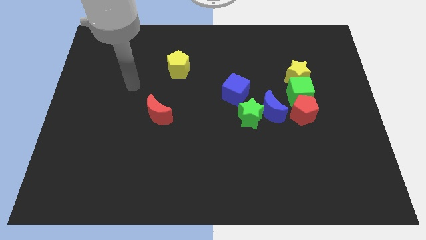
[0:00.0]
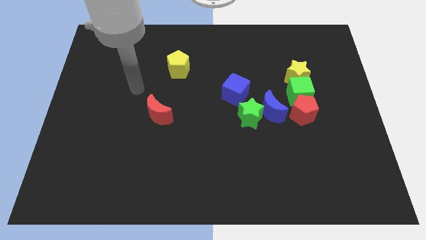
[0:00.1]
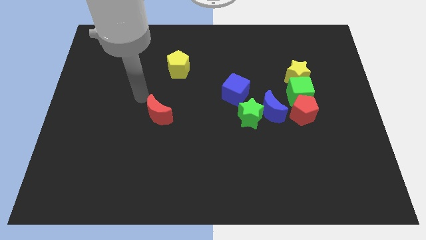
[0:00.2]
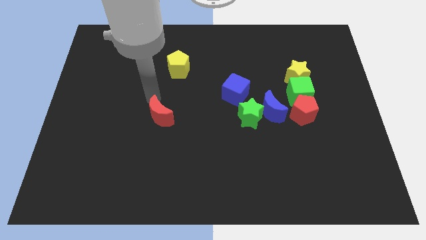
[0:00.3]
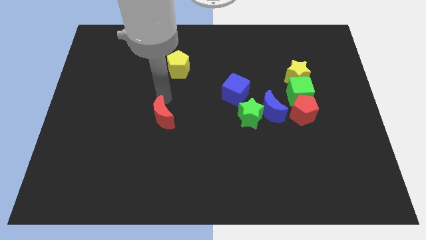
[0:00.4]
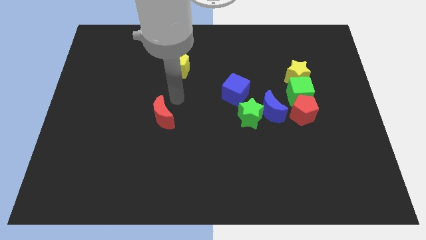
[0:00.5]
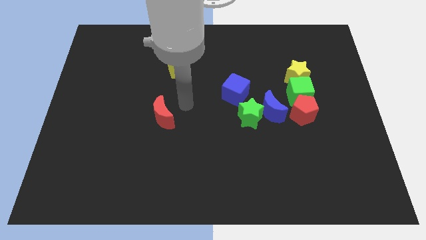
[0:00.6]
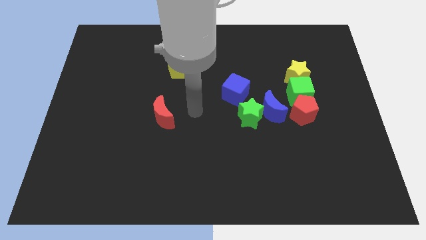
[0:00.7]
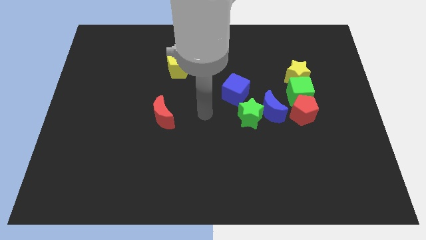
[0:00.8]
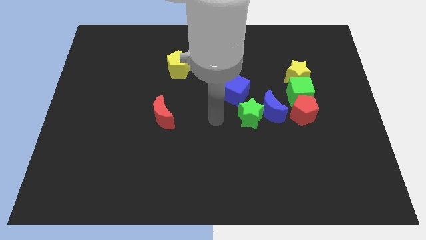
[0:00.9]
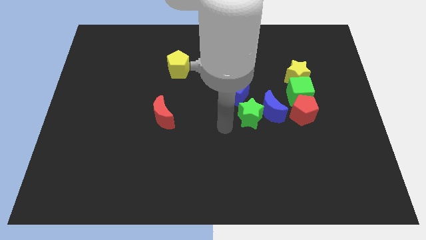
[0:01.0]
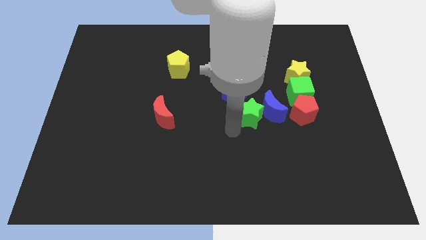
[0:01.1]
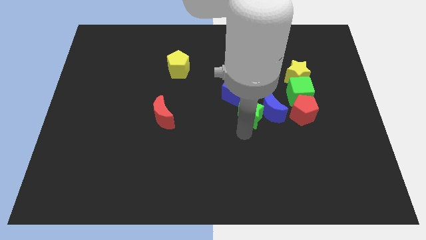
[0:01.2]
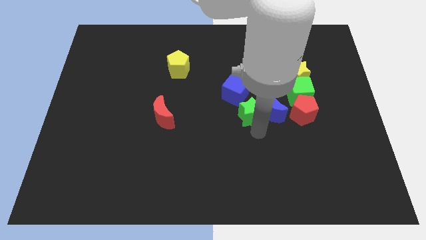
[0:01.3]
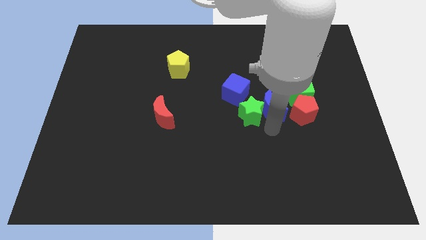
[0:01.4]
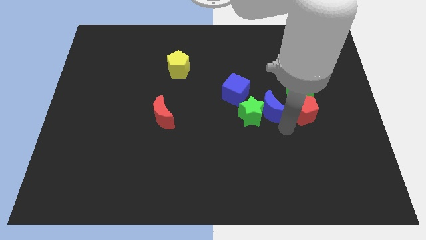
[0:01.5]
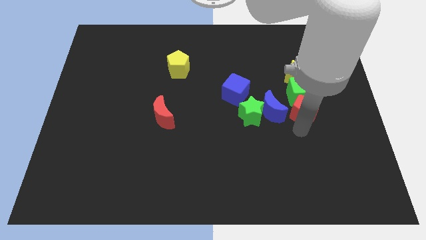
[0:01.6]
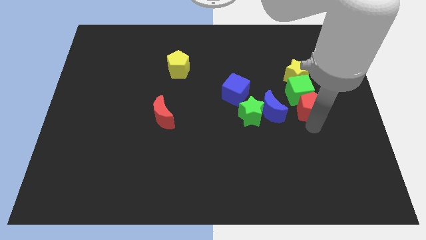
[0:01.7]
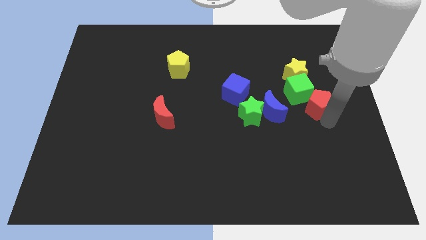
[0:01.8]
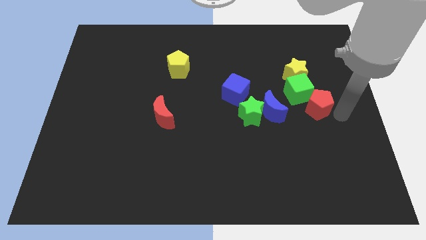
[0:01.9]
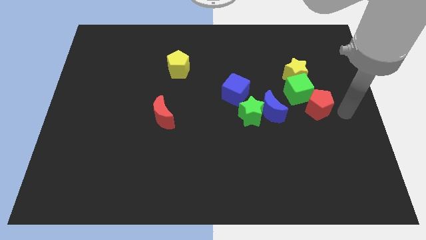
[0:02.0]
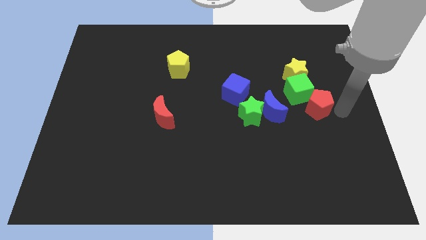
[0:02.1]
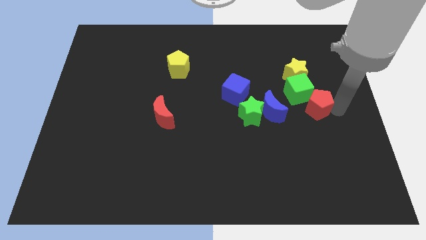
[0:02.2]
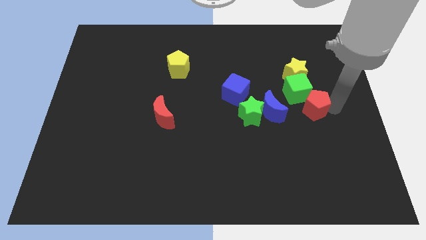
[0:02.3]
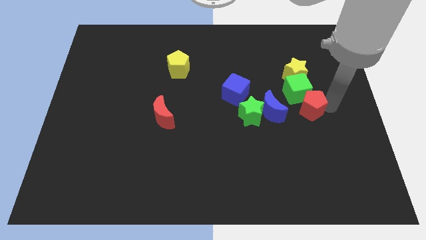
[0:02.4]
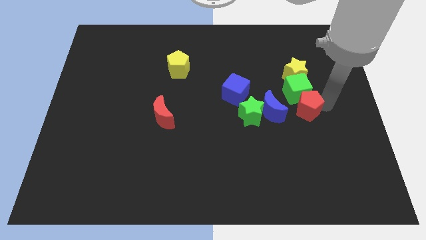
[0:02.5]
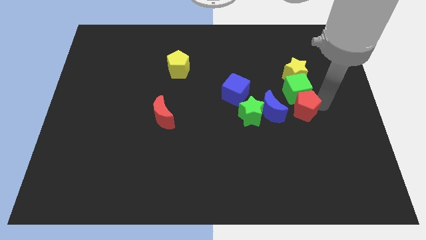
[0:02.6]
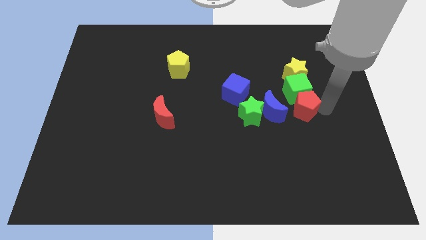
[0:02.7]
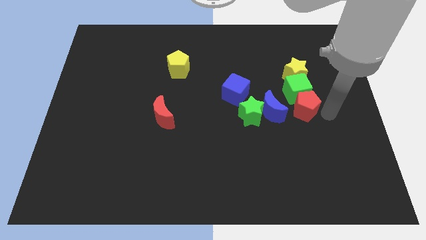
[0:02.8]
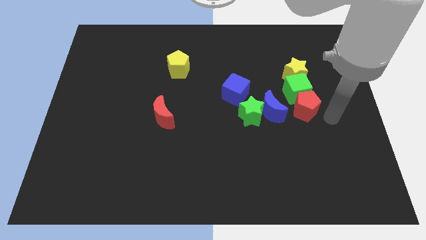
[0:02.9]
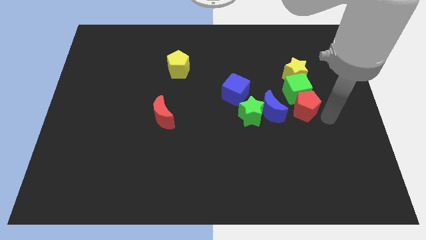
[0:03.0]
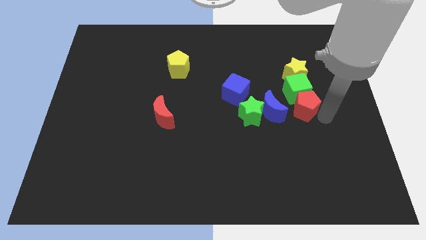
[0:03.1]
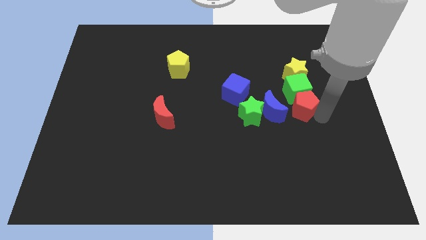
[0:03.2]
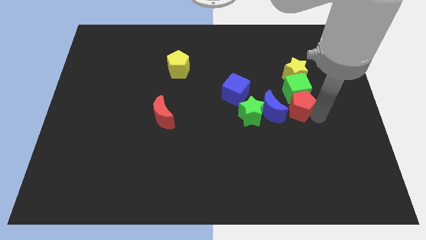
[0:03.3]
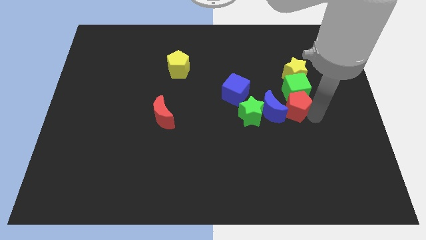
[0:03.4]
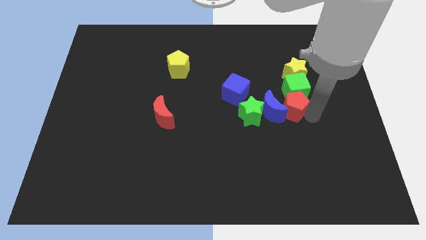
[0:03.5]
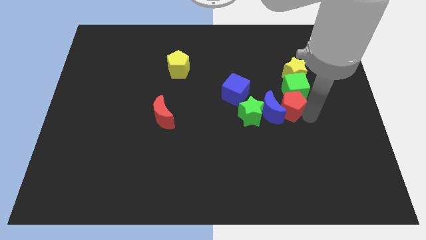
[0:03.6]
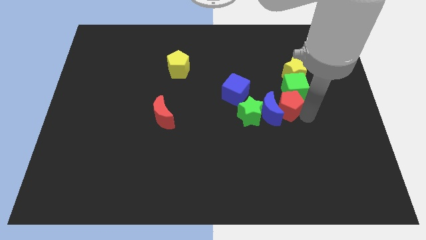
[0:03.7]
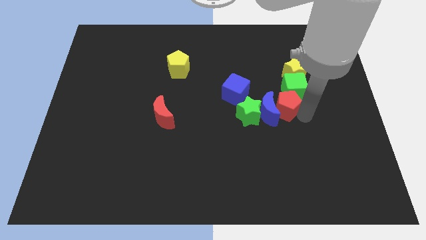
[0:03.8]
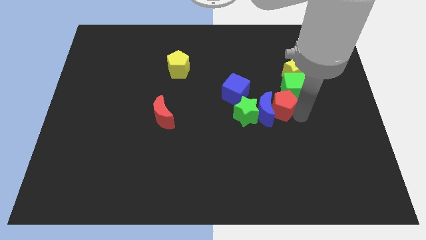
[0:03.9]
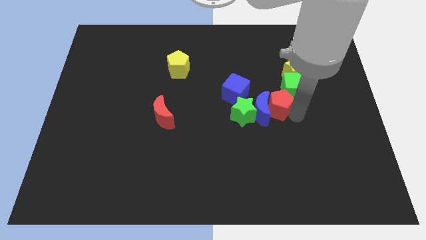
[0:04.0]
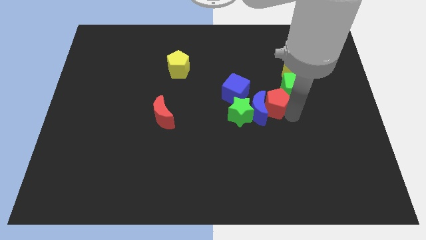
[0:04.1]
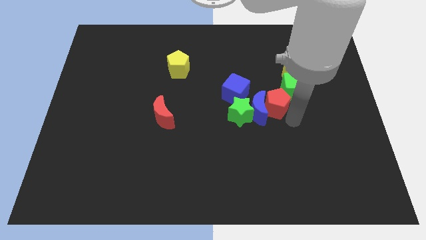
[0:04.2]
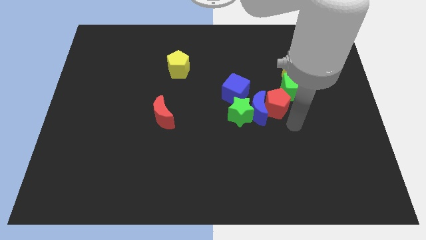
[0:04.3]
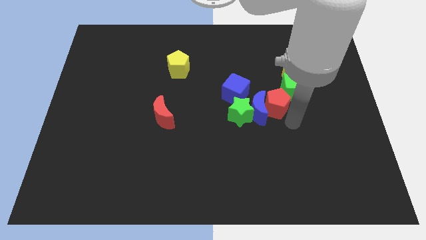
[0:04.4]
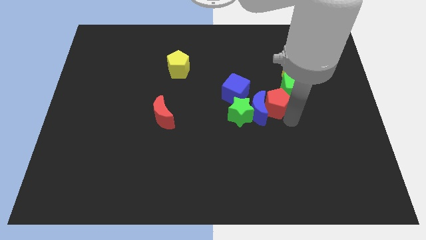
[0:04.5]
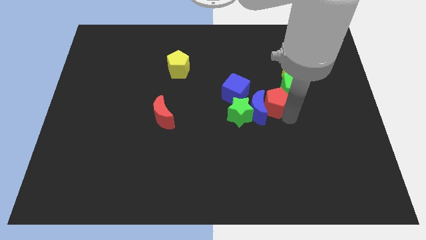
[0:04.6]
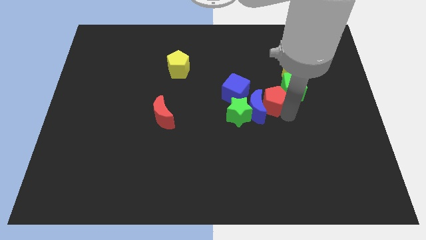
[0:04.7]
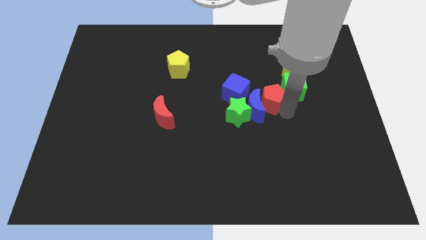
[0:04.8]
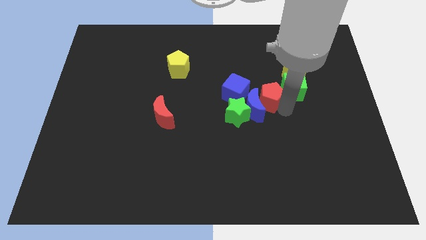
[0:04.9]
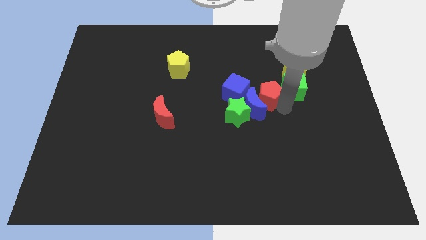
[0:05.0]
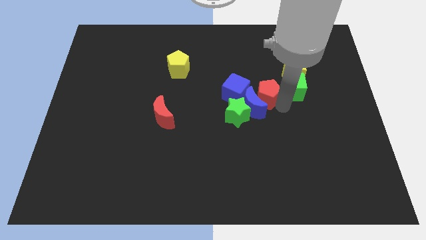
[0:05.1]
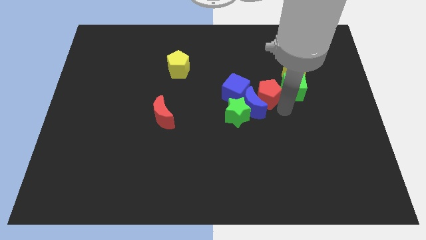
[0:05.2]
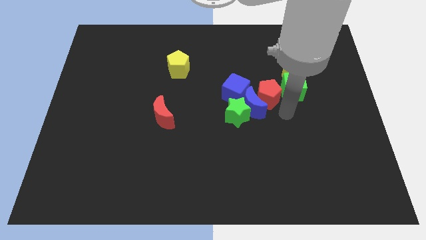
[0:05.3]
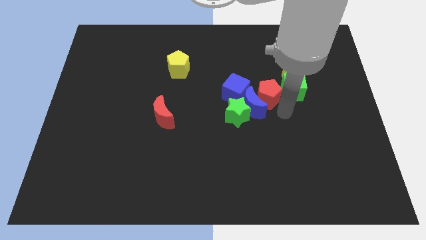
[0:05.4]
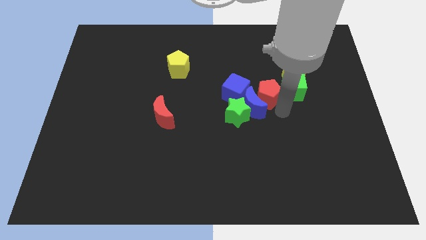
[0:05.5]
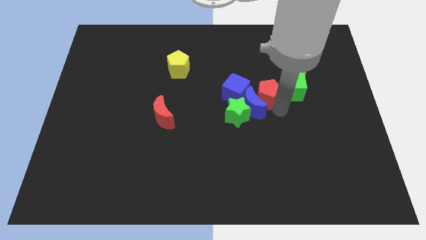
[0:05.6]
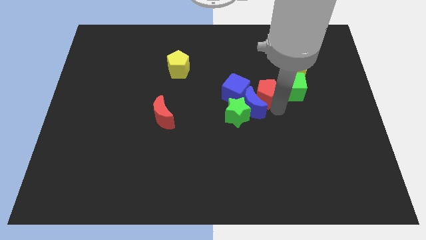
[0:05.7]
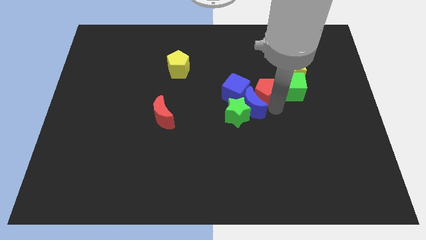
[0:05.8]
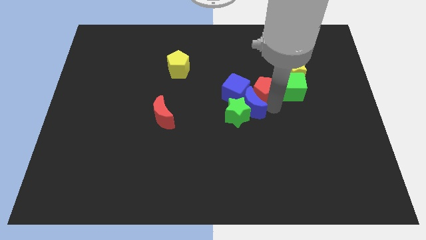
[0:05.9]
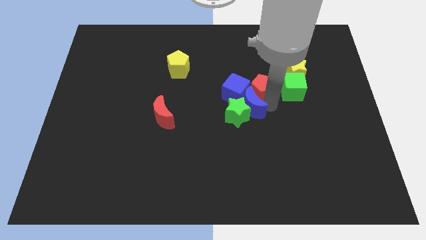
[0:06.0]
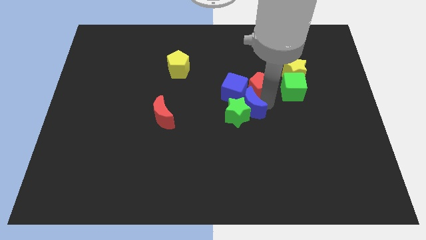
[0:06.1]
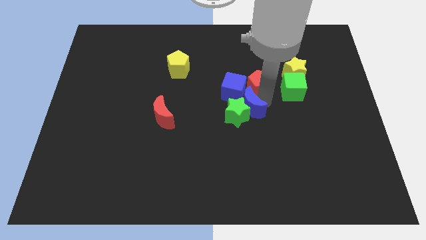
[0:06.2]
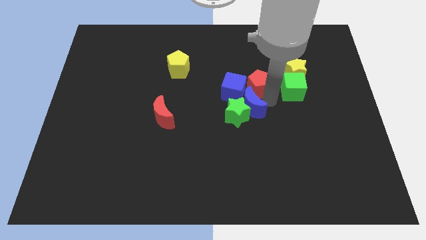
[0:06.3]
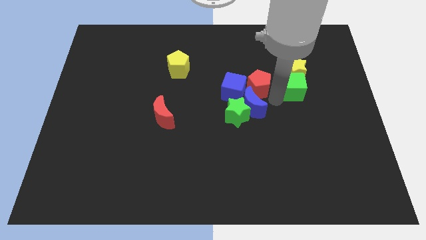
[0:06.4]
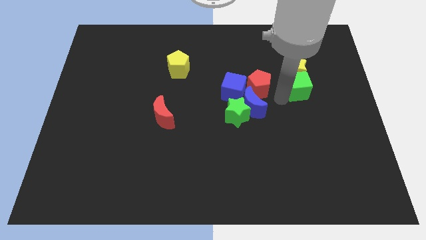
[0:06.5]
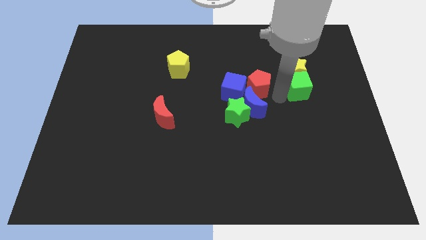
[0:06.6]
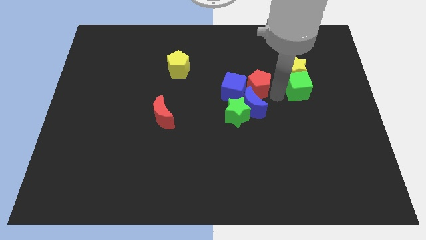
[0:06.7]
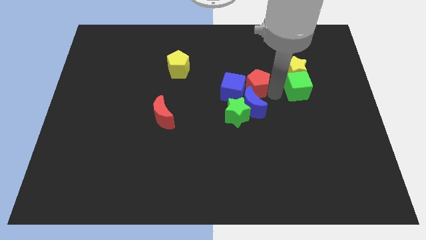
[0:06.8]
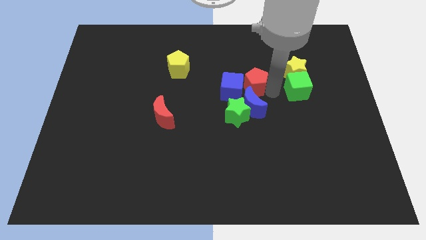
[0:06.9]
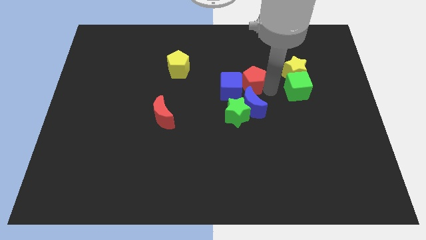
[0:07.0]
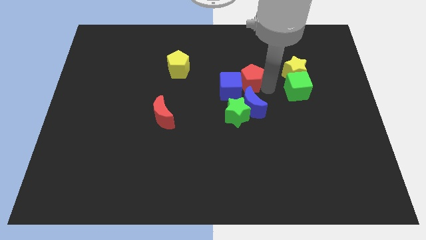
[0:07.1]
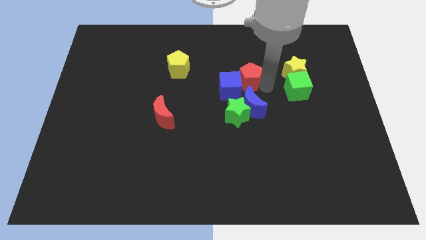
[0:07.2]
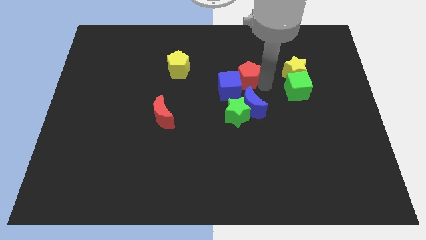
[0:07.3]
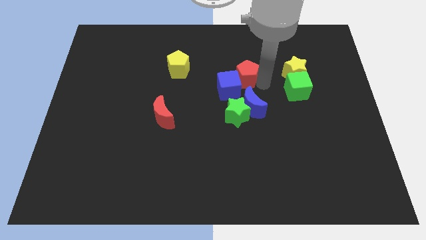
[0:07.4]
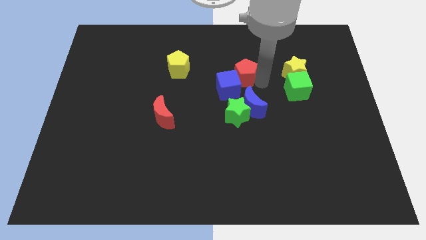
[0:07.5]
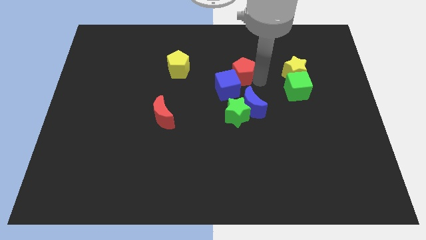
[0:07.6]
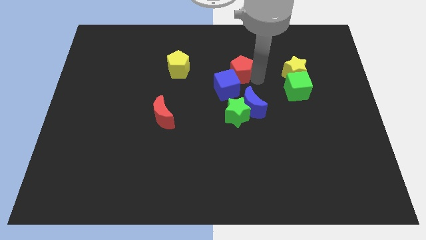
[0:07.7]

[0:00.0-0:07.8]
slide the red pentagon just right of the yellow pentagon
